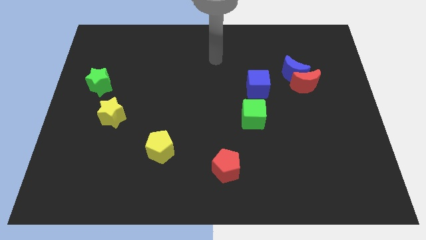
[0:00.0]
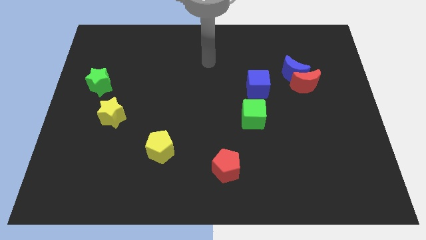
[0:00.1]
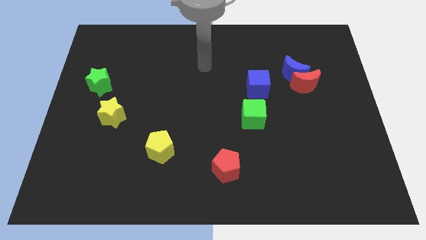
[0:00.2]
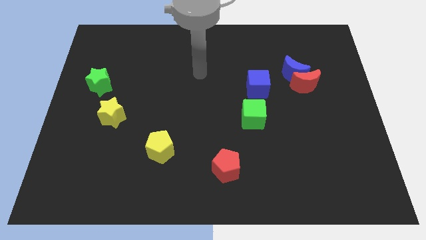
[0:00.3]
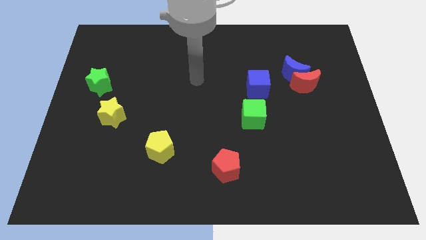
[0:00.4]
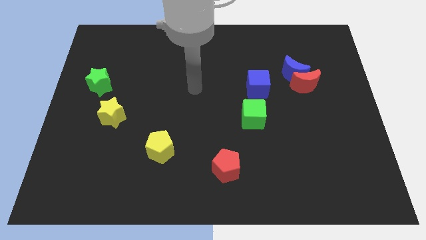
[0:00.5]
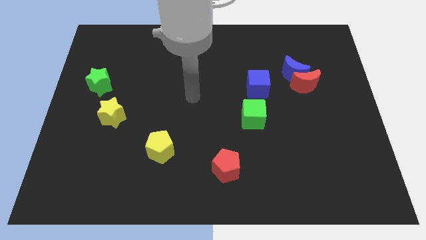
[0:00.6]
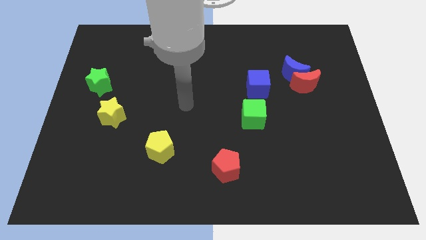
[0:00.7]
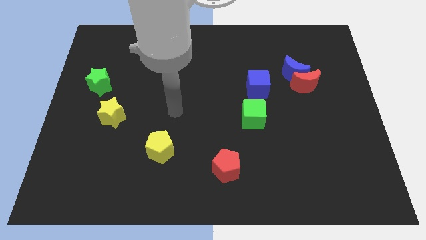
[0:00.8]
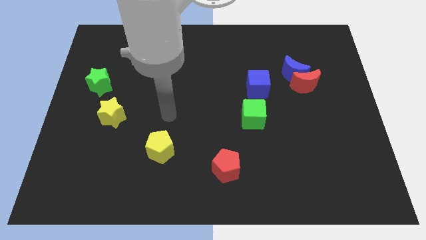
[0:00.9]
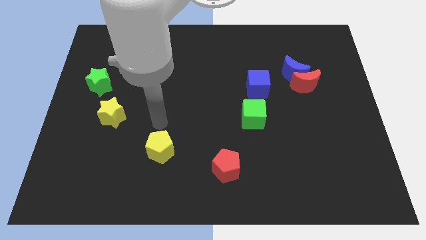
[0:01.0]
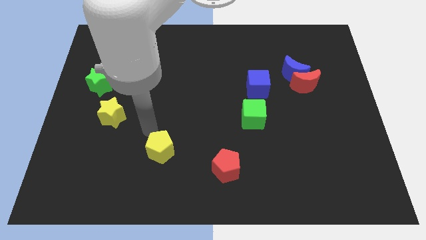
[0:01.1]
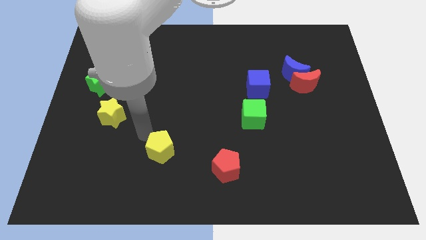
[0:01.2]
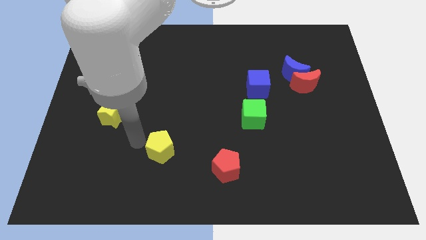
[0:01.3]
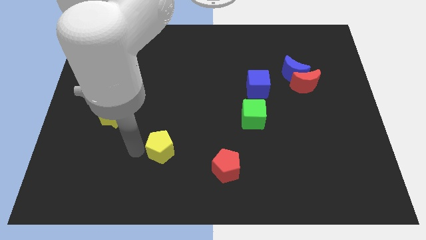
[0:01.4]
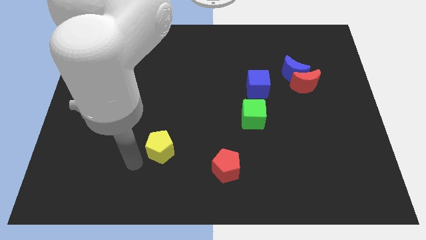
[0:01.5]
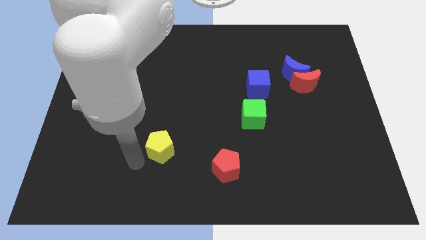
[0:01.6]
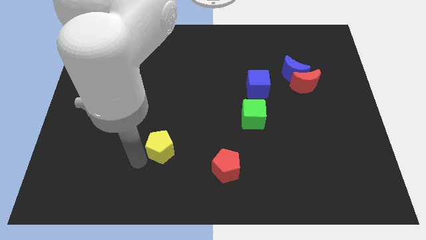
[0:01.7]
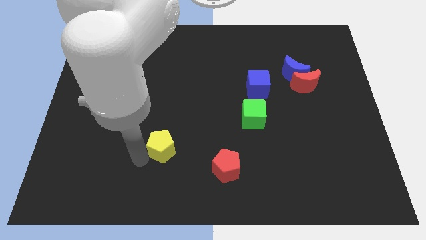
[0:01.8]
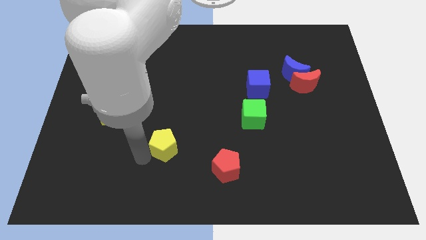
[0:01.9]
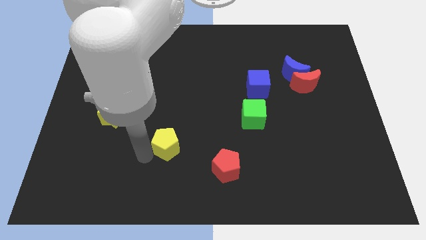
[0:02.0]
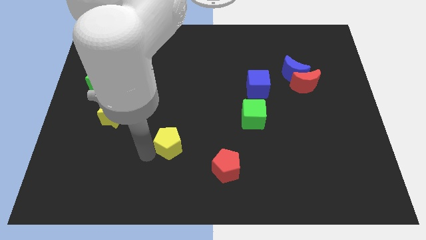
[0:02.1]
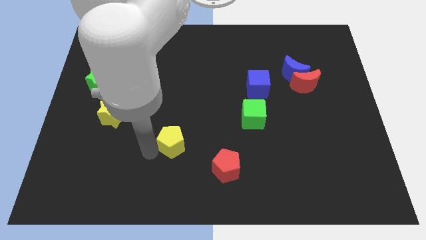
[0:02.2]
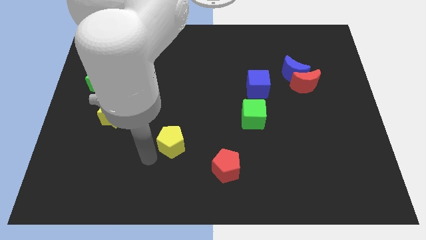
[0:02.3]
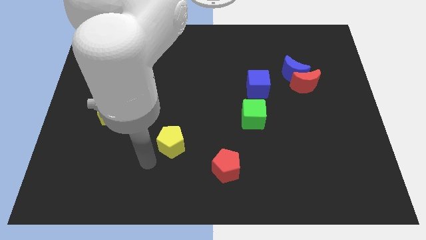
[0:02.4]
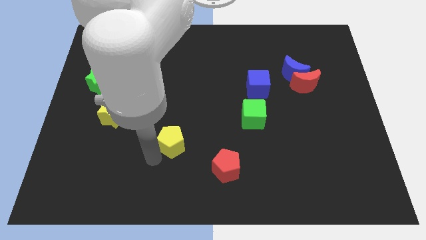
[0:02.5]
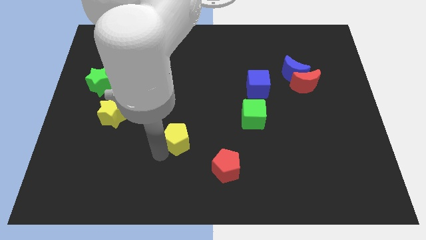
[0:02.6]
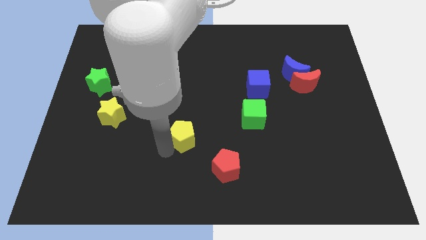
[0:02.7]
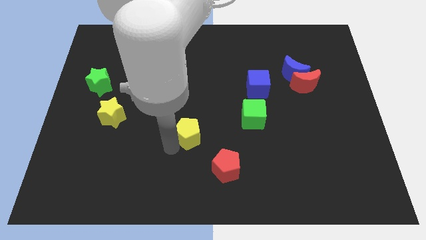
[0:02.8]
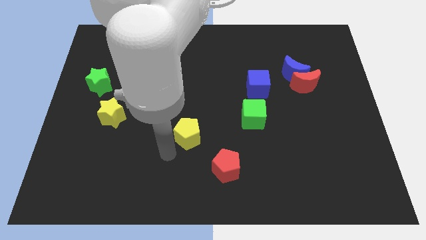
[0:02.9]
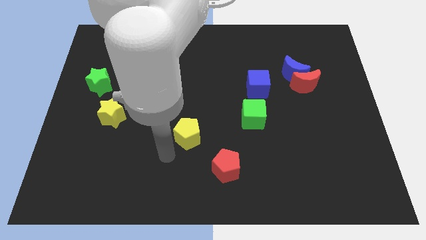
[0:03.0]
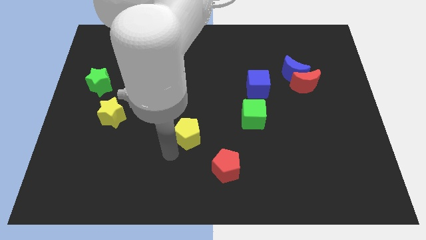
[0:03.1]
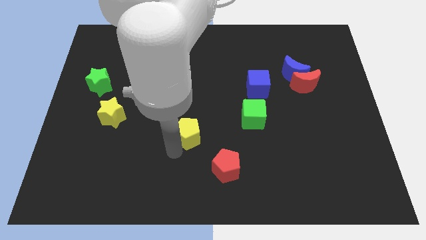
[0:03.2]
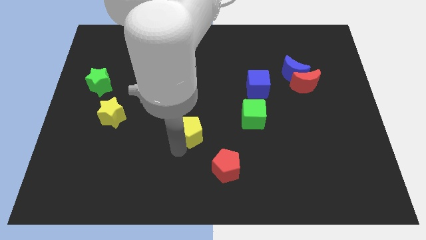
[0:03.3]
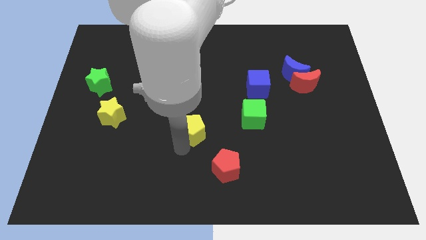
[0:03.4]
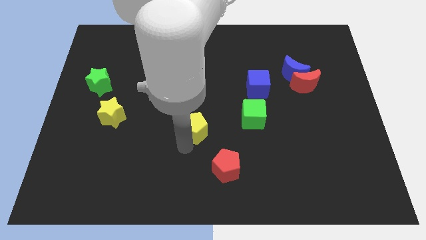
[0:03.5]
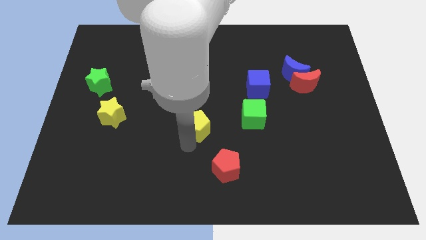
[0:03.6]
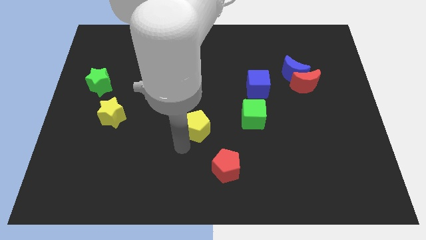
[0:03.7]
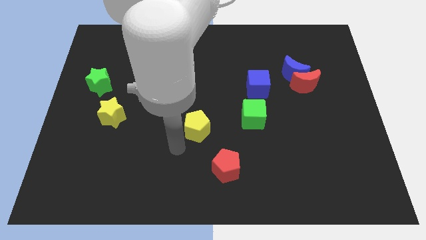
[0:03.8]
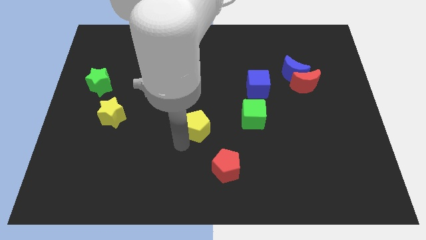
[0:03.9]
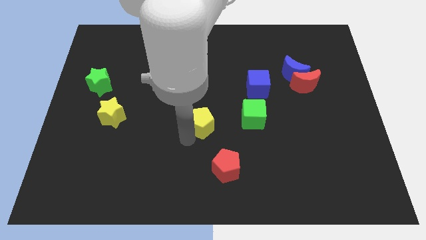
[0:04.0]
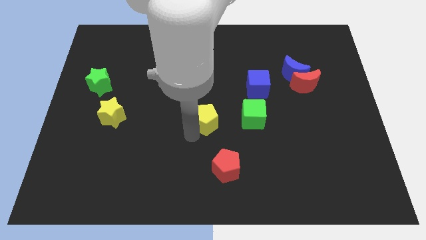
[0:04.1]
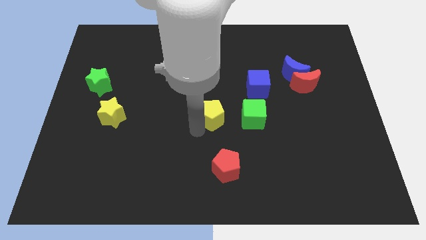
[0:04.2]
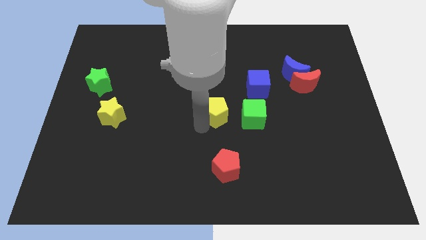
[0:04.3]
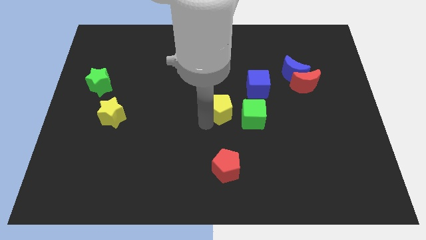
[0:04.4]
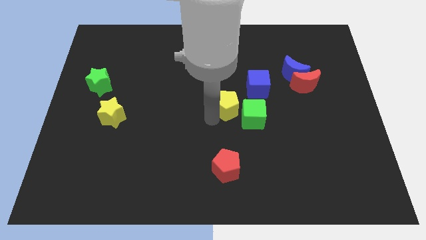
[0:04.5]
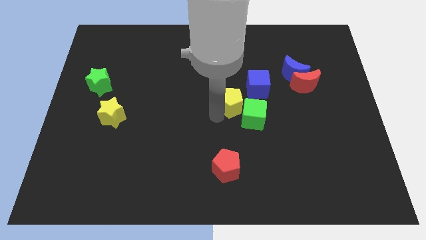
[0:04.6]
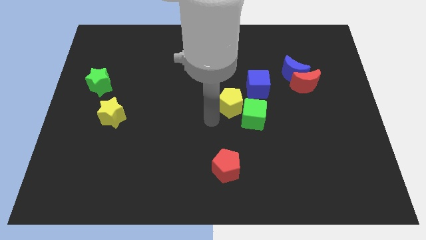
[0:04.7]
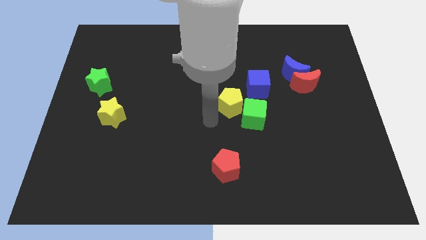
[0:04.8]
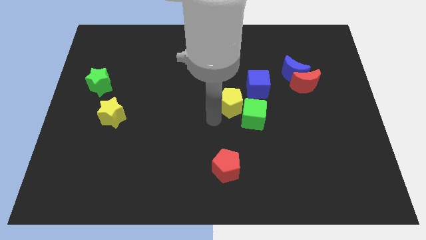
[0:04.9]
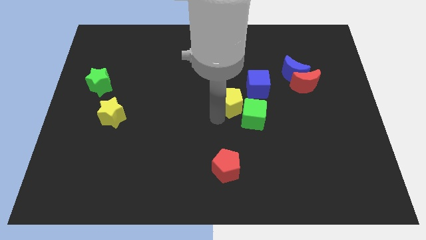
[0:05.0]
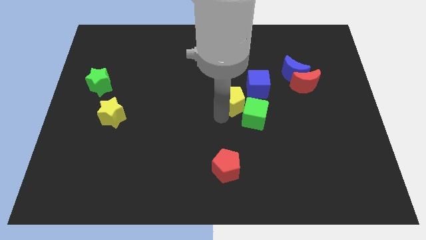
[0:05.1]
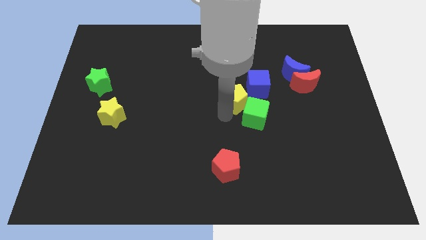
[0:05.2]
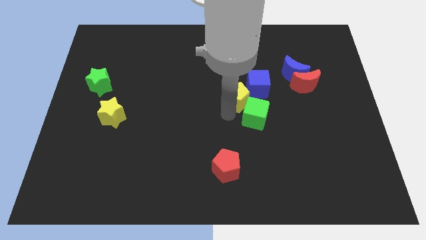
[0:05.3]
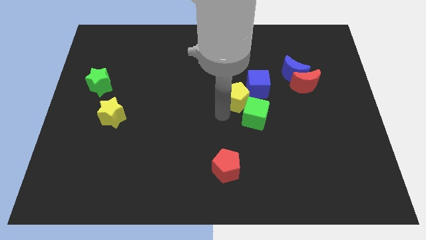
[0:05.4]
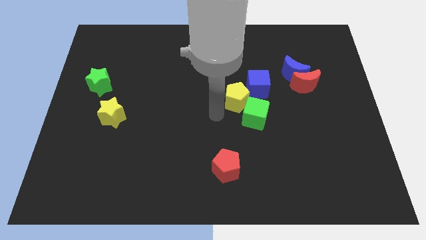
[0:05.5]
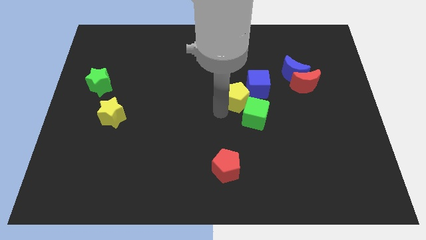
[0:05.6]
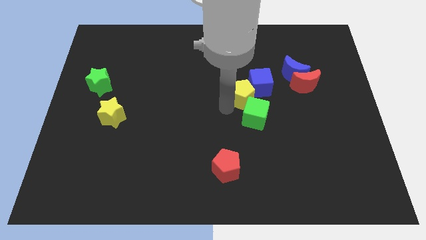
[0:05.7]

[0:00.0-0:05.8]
slide the yellow pentagon to the blue cube

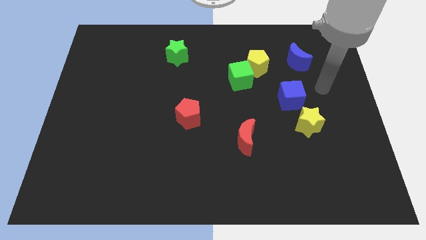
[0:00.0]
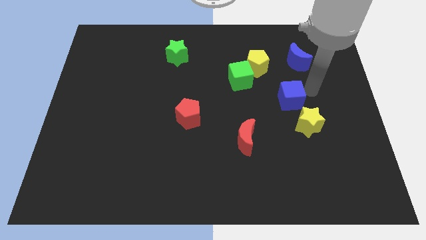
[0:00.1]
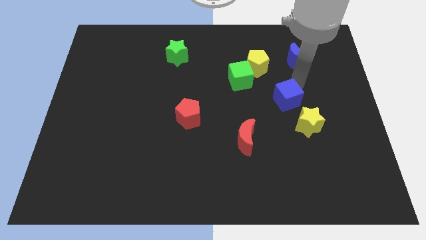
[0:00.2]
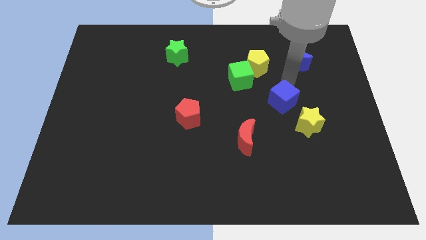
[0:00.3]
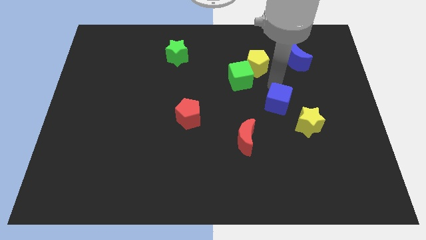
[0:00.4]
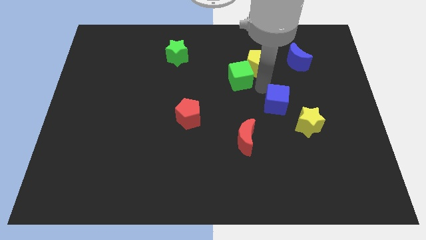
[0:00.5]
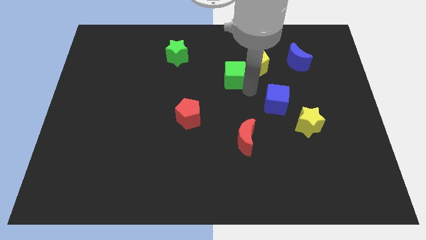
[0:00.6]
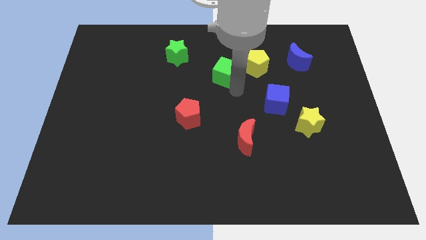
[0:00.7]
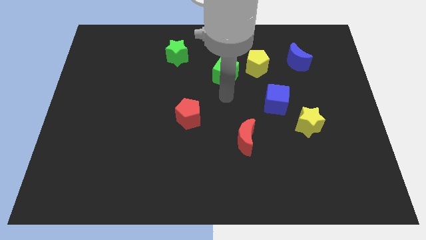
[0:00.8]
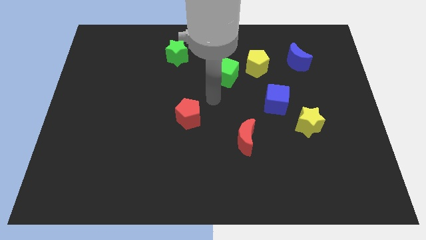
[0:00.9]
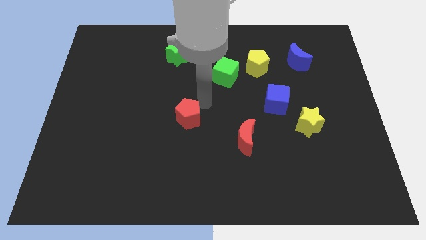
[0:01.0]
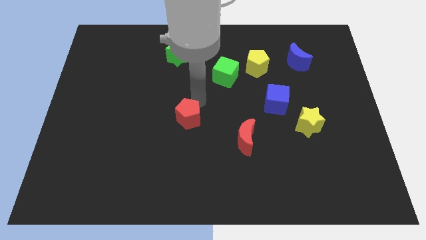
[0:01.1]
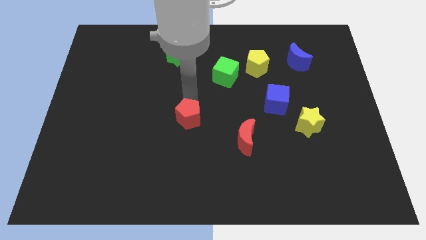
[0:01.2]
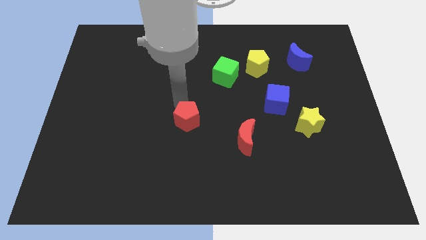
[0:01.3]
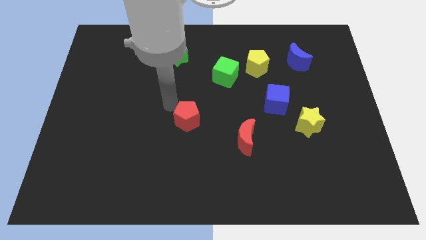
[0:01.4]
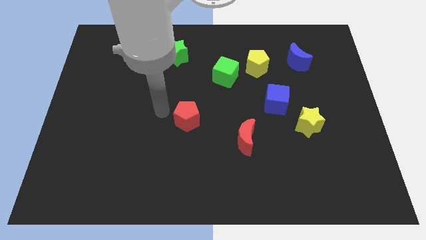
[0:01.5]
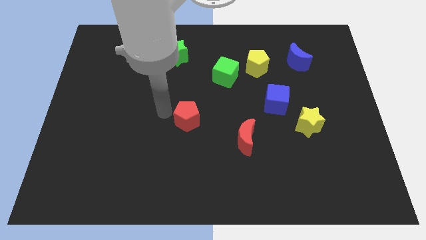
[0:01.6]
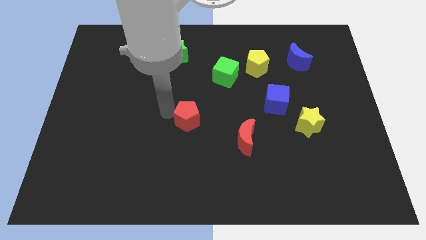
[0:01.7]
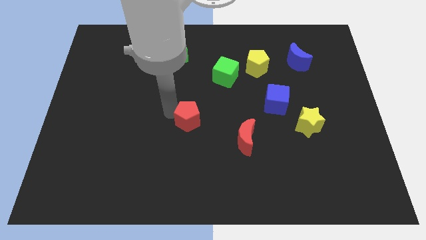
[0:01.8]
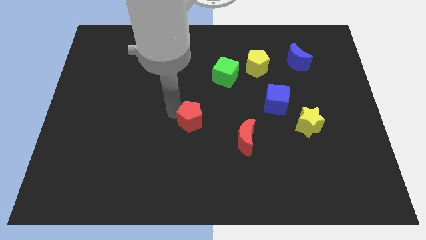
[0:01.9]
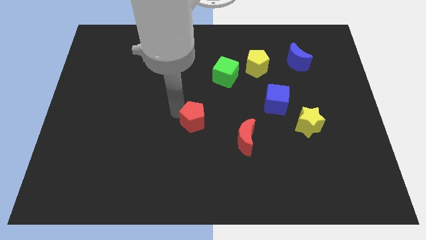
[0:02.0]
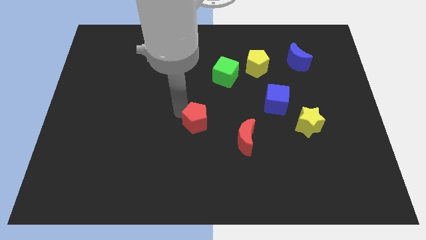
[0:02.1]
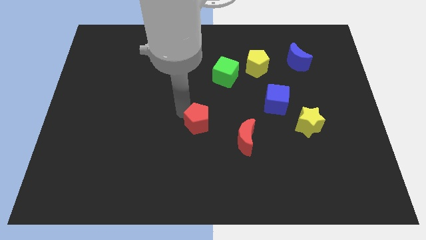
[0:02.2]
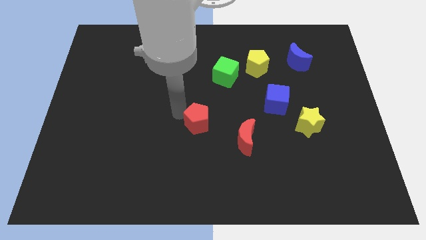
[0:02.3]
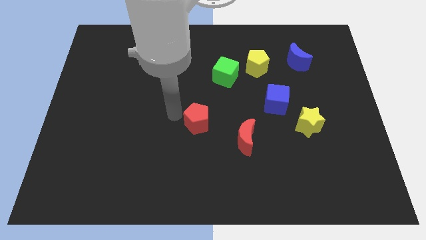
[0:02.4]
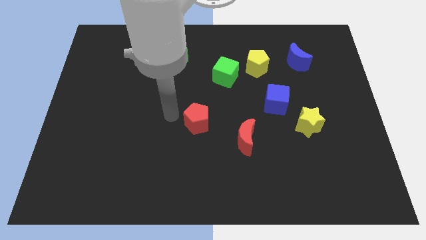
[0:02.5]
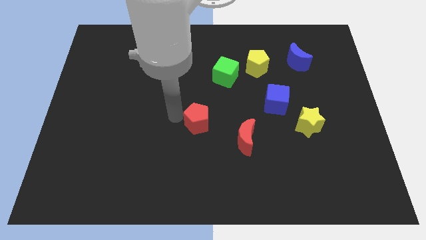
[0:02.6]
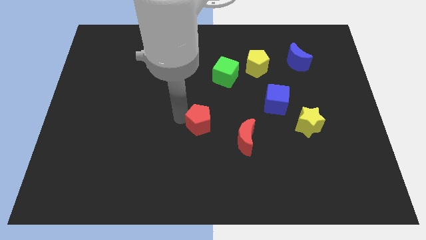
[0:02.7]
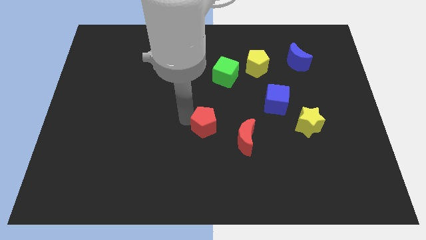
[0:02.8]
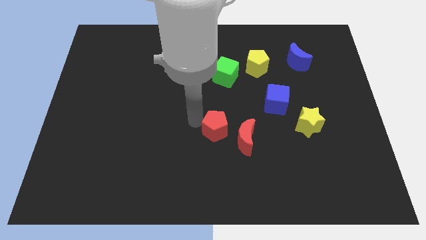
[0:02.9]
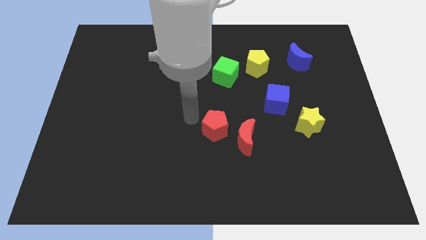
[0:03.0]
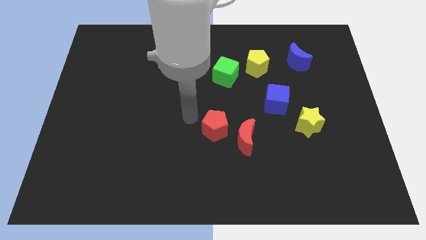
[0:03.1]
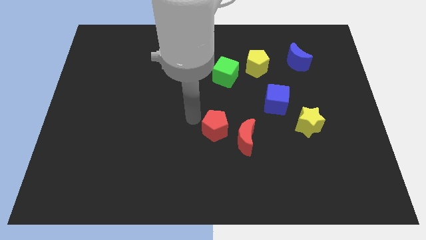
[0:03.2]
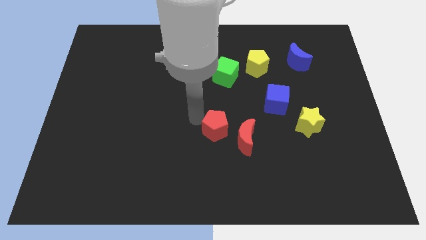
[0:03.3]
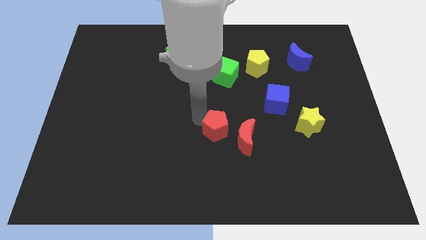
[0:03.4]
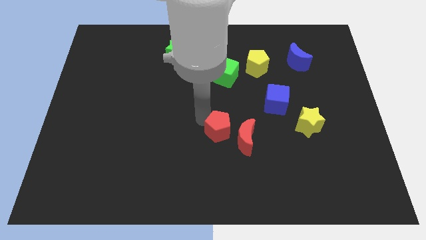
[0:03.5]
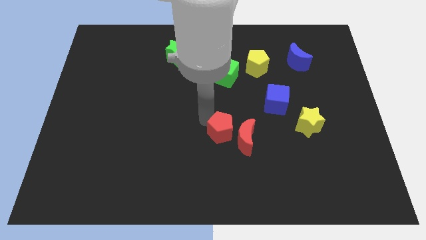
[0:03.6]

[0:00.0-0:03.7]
put the red pentagon next to the red moon
